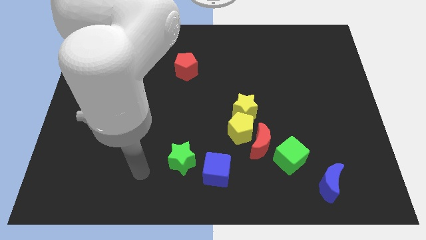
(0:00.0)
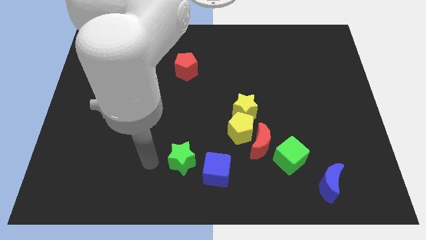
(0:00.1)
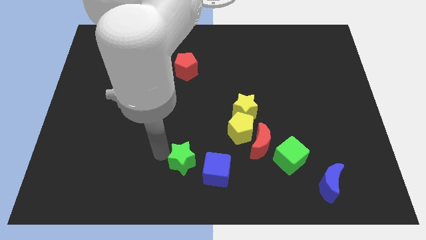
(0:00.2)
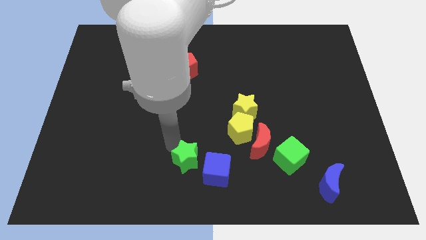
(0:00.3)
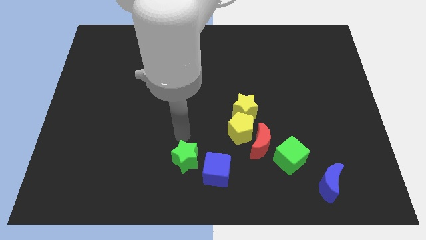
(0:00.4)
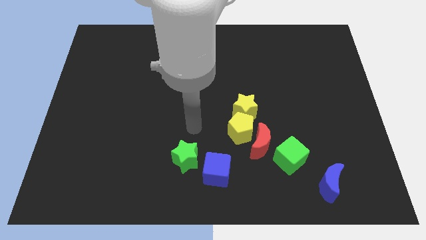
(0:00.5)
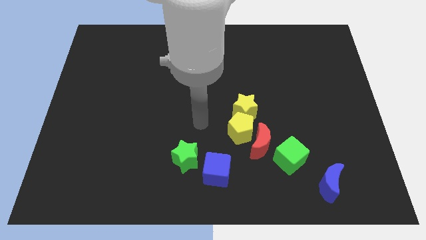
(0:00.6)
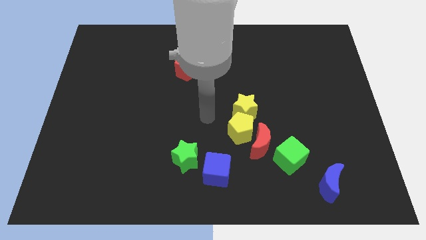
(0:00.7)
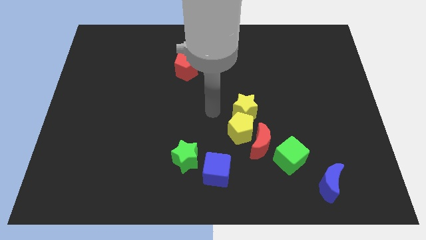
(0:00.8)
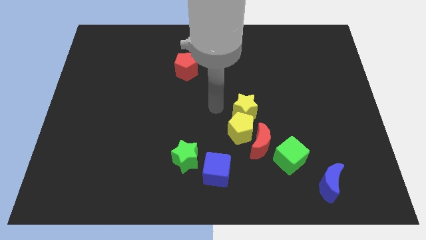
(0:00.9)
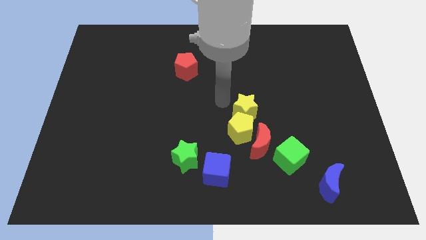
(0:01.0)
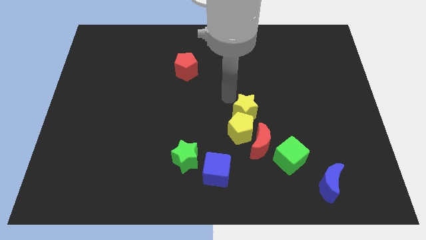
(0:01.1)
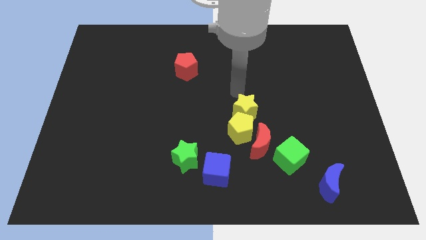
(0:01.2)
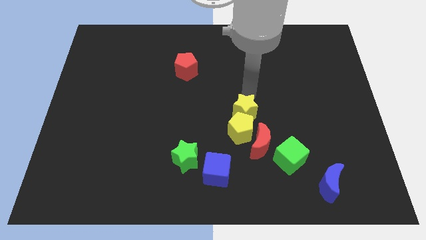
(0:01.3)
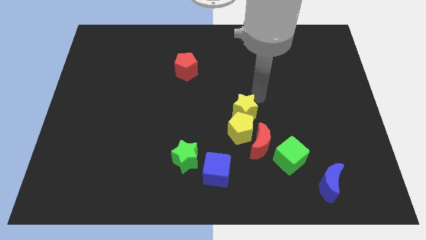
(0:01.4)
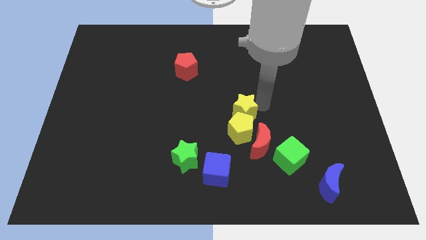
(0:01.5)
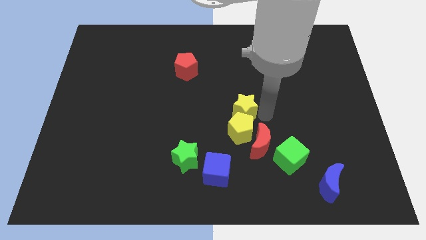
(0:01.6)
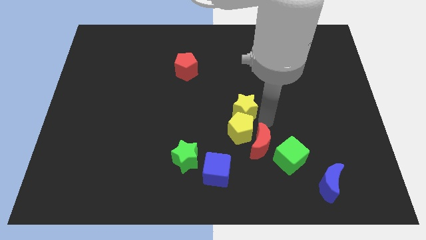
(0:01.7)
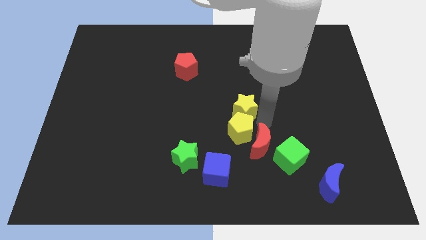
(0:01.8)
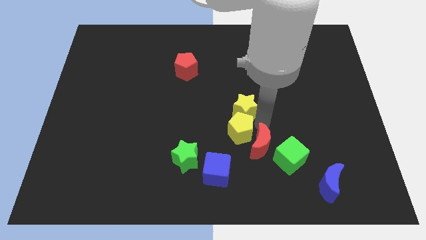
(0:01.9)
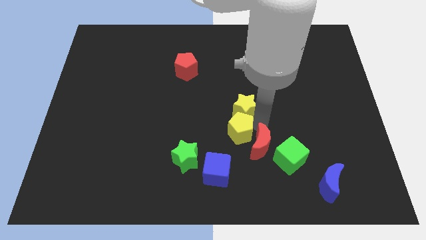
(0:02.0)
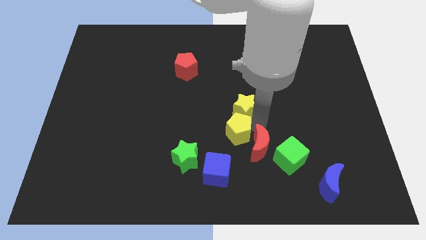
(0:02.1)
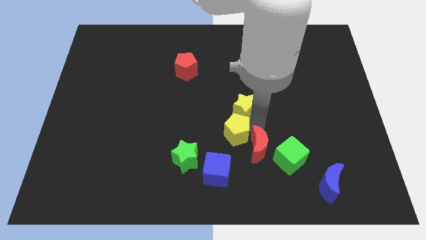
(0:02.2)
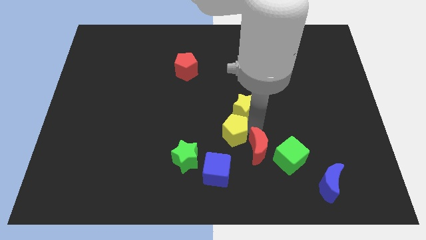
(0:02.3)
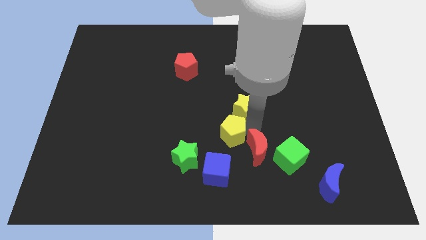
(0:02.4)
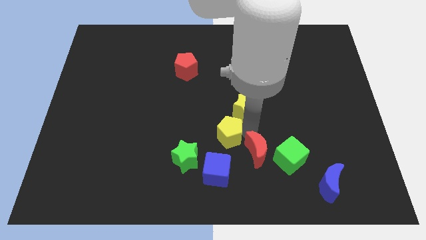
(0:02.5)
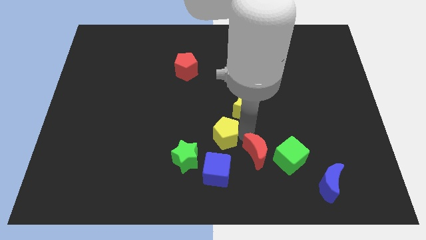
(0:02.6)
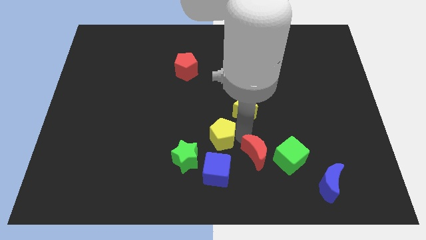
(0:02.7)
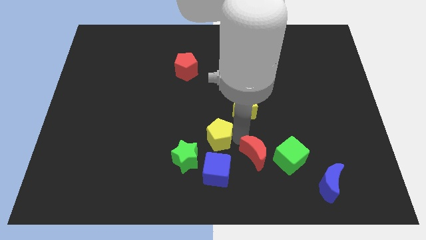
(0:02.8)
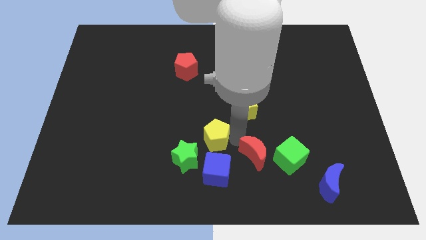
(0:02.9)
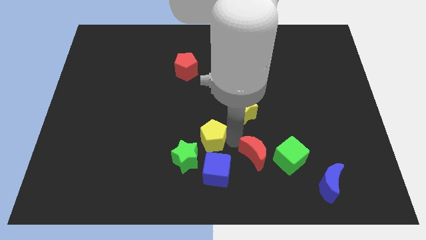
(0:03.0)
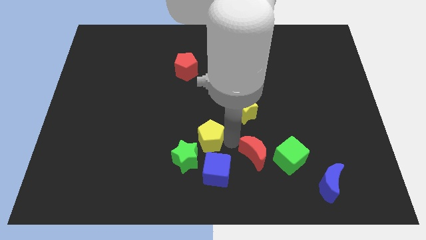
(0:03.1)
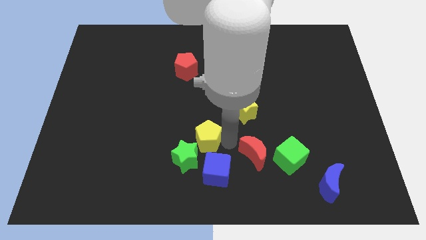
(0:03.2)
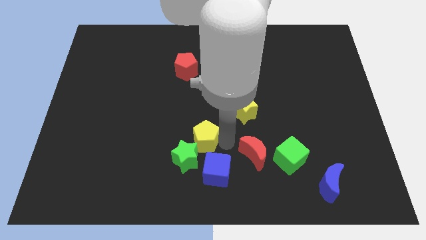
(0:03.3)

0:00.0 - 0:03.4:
separate the yellow pentagon from the yellow star and red moon

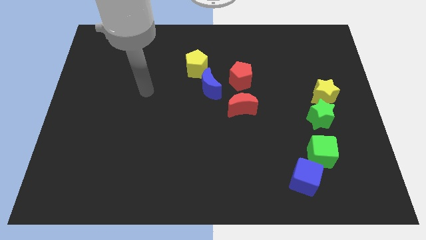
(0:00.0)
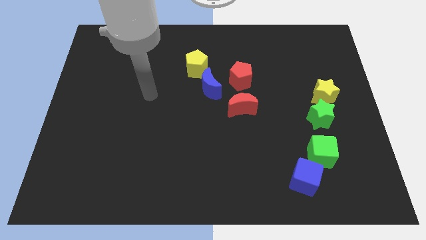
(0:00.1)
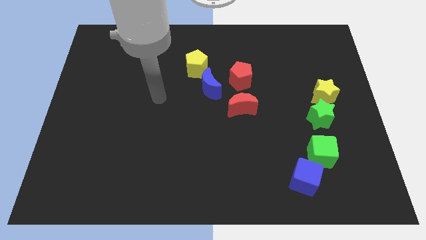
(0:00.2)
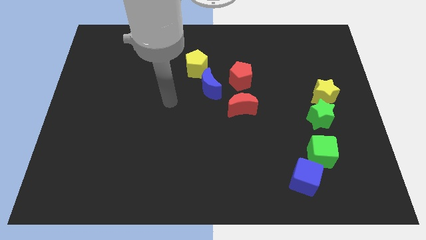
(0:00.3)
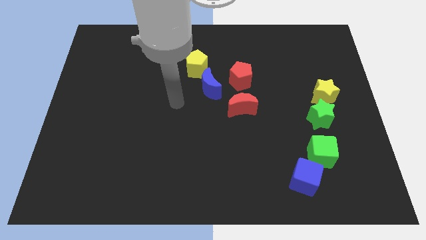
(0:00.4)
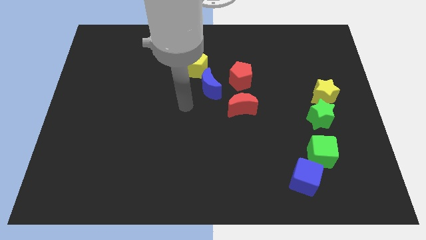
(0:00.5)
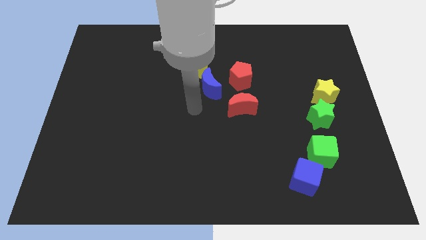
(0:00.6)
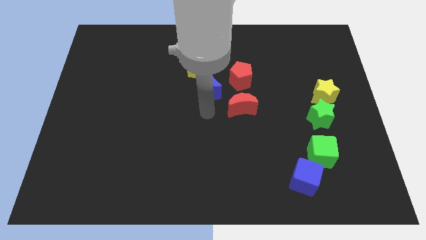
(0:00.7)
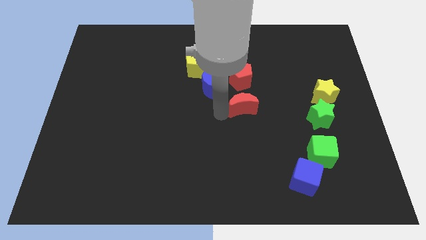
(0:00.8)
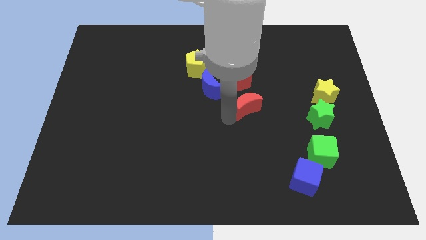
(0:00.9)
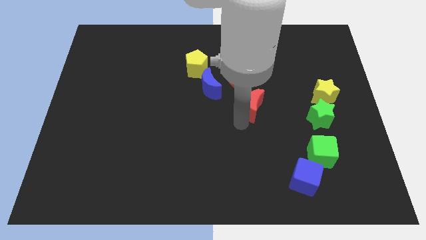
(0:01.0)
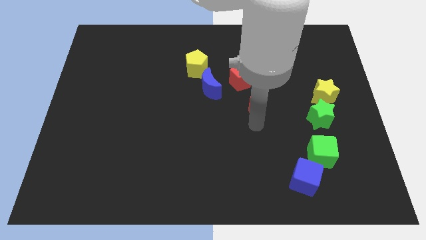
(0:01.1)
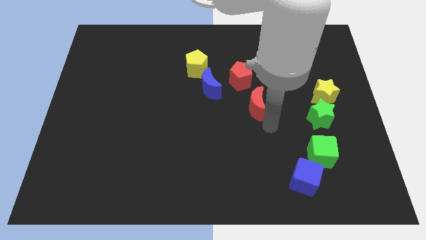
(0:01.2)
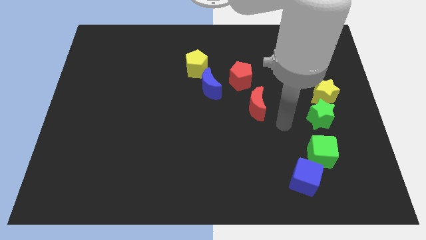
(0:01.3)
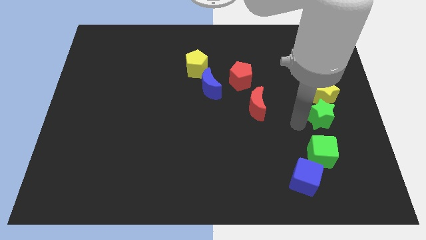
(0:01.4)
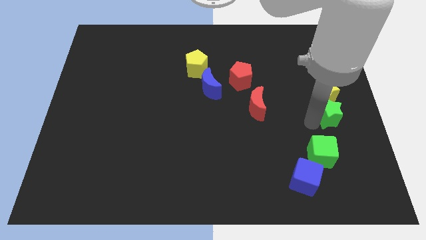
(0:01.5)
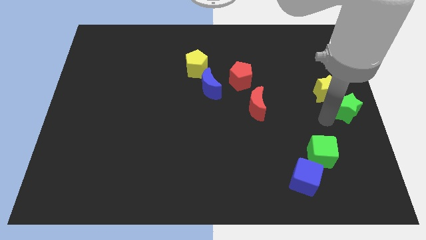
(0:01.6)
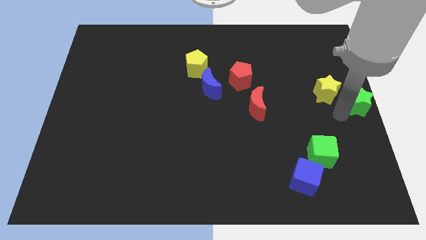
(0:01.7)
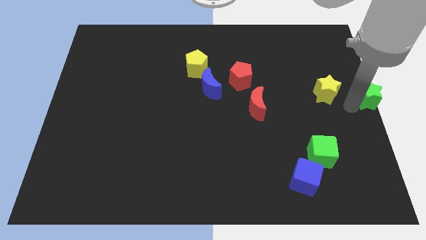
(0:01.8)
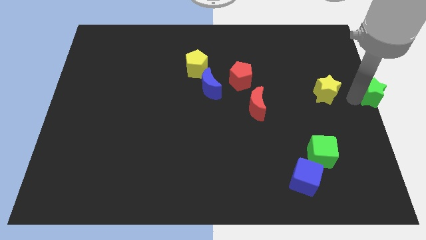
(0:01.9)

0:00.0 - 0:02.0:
move the yellow star away from the green star

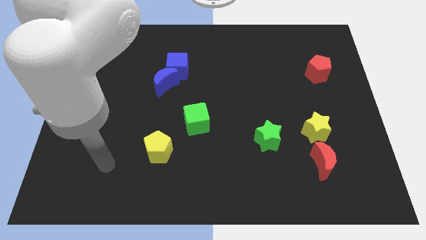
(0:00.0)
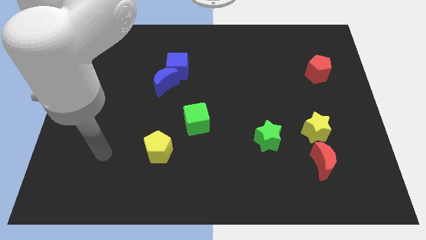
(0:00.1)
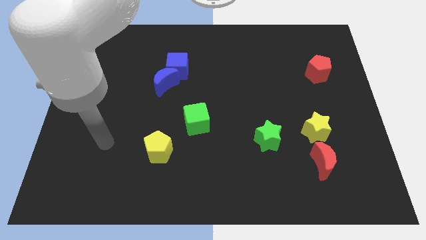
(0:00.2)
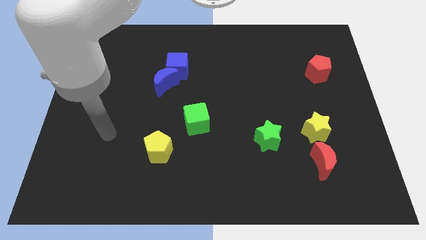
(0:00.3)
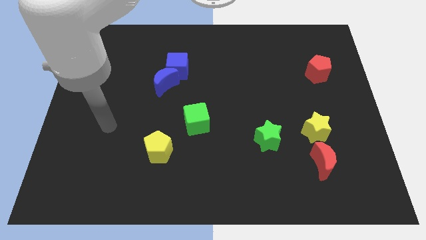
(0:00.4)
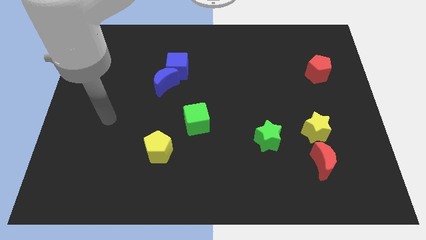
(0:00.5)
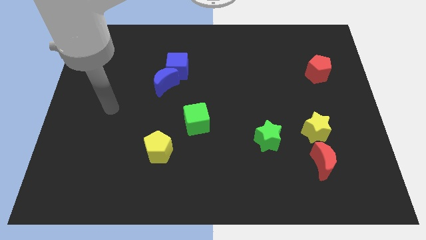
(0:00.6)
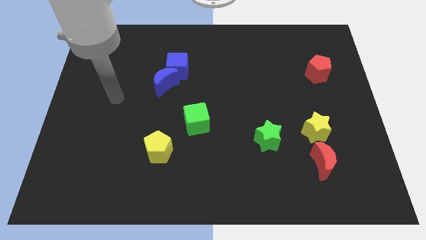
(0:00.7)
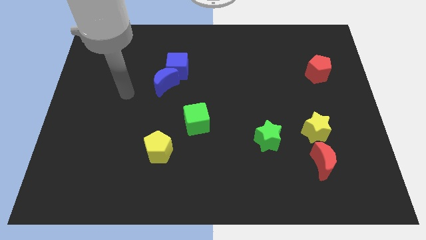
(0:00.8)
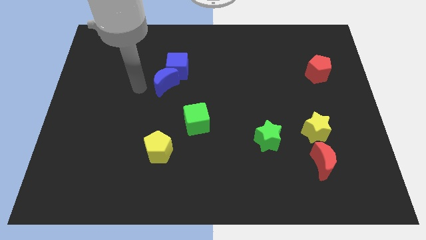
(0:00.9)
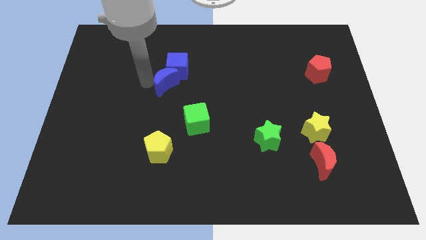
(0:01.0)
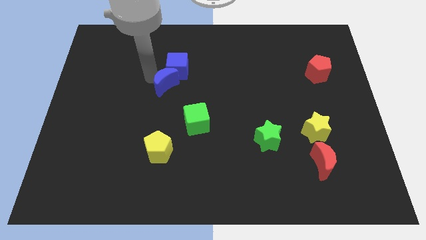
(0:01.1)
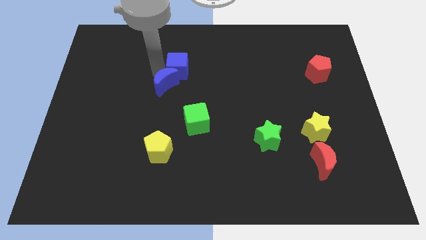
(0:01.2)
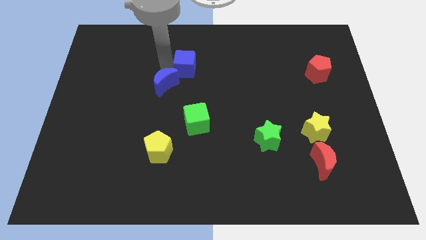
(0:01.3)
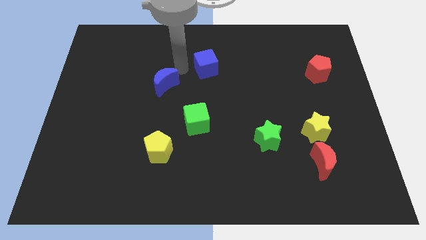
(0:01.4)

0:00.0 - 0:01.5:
pull the blue moon apart from the blue cube

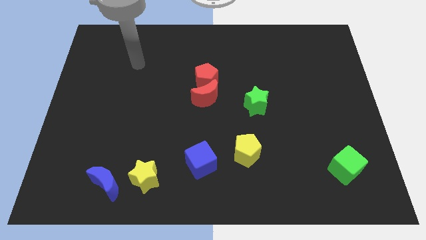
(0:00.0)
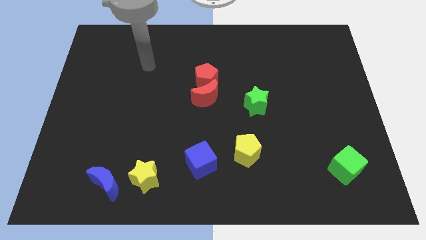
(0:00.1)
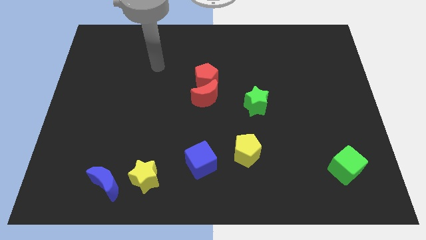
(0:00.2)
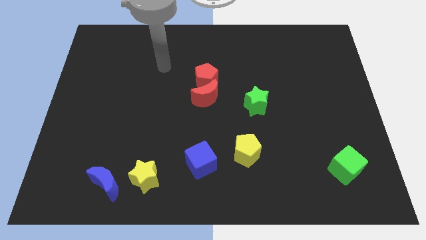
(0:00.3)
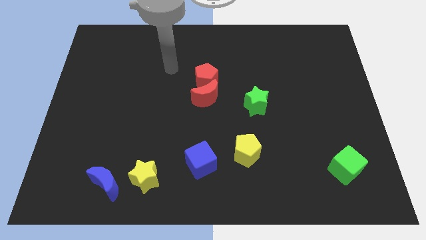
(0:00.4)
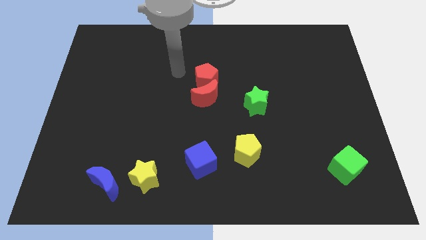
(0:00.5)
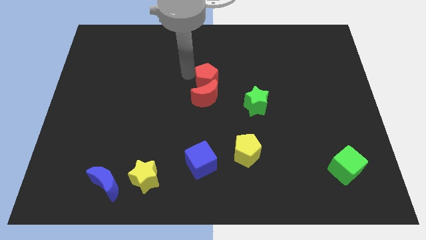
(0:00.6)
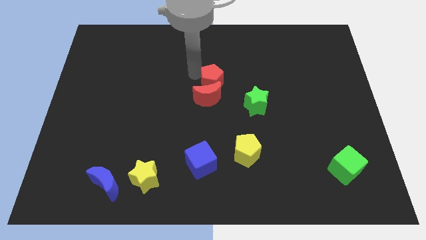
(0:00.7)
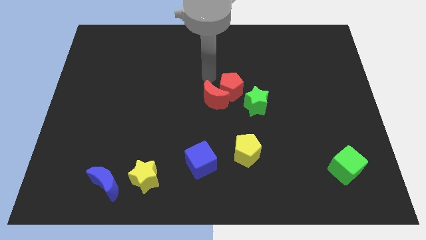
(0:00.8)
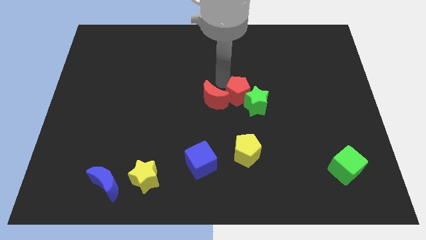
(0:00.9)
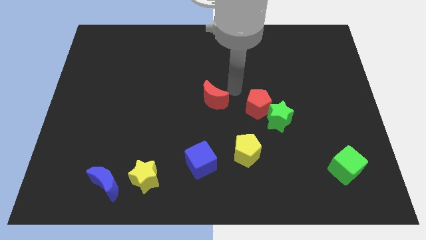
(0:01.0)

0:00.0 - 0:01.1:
move the red moon away from the red pentagon

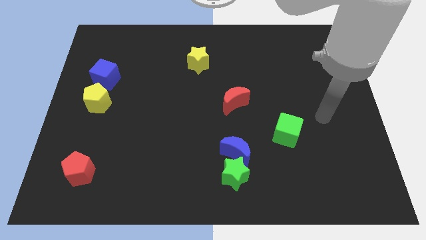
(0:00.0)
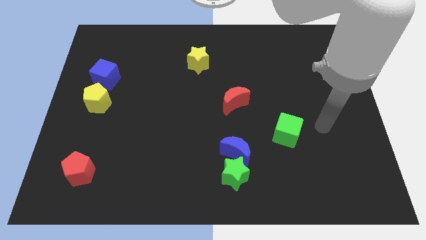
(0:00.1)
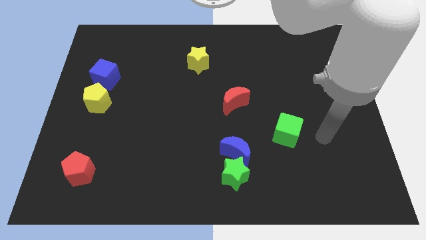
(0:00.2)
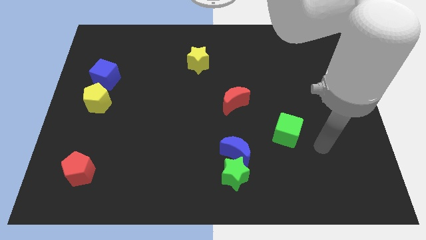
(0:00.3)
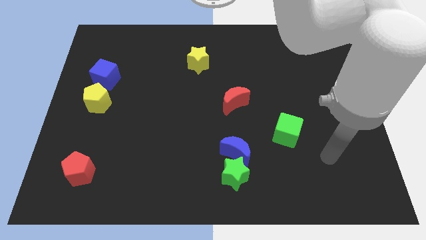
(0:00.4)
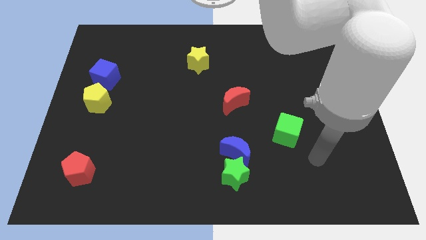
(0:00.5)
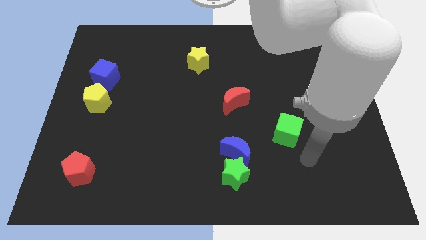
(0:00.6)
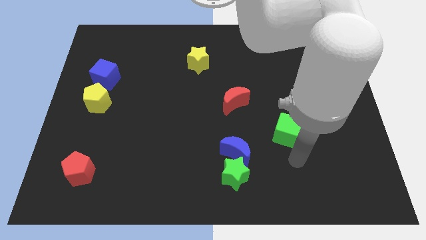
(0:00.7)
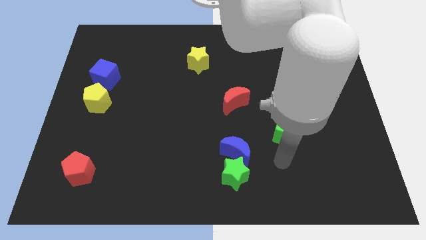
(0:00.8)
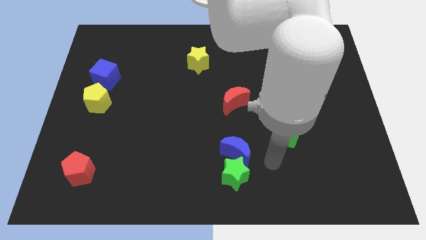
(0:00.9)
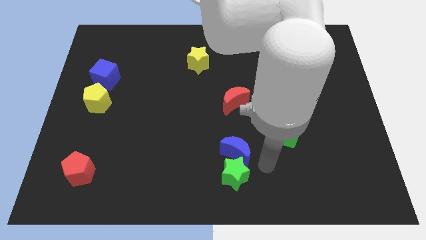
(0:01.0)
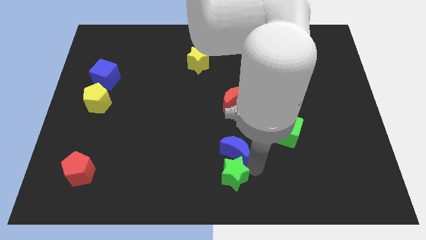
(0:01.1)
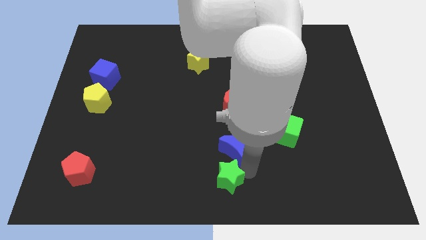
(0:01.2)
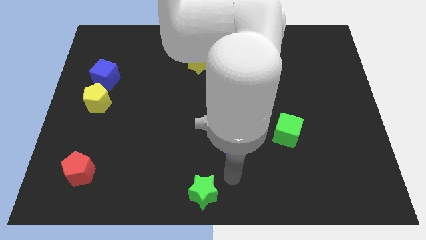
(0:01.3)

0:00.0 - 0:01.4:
move the blue moon away from the green star
